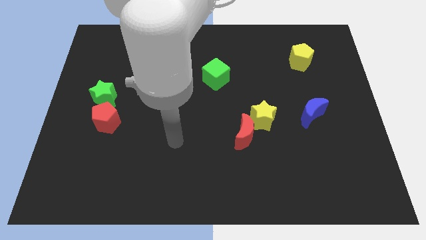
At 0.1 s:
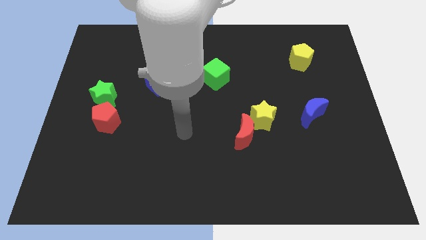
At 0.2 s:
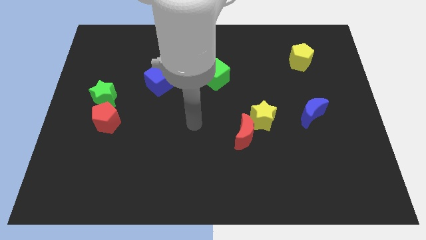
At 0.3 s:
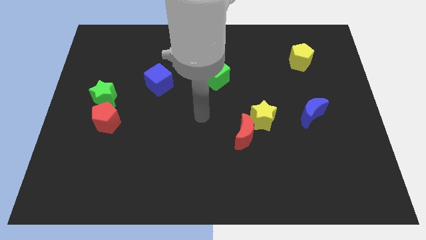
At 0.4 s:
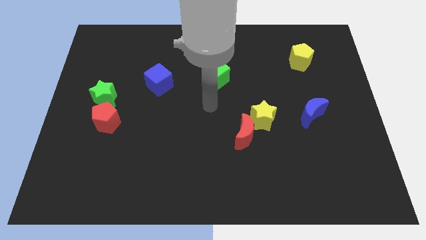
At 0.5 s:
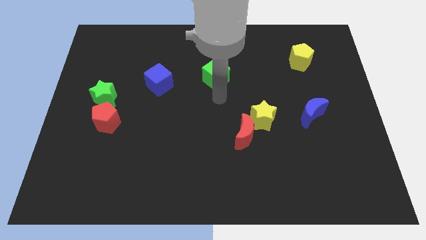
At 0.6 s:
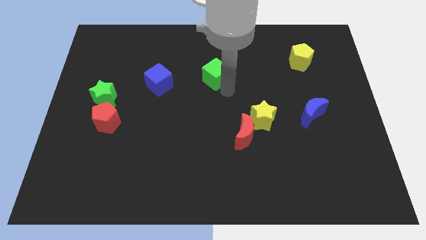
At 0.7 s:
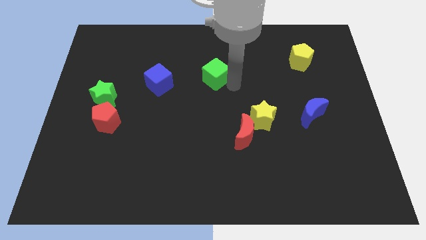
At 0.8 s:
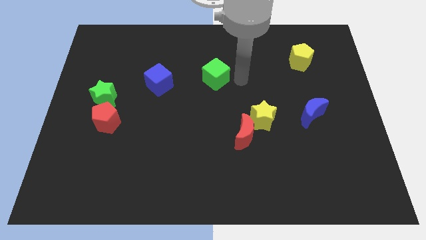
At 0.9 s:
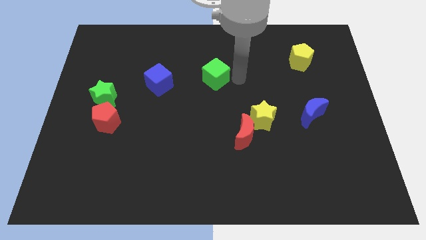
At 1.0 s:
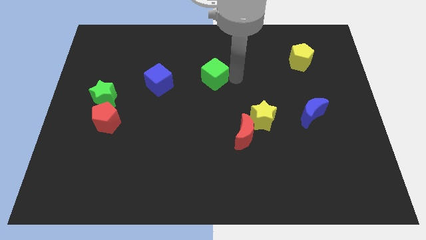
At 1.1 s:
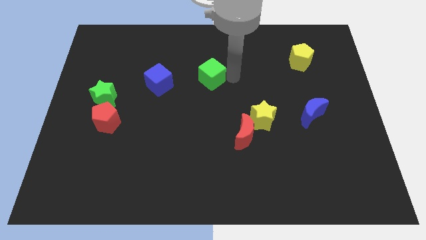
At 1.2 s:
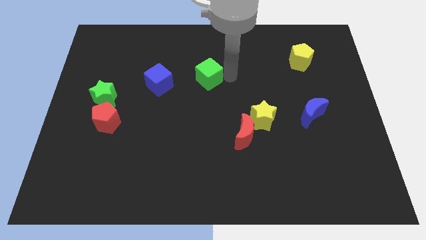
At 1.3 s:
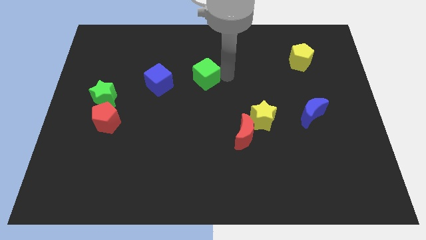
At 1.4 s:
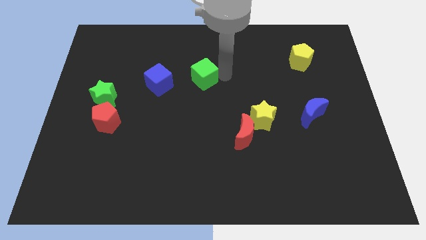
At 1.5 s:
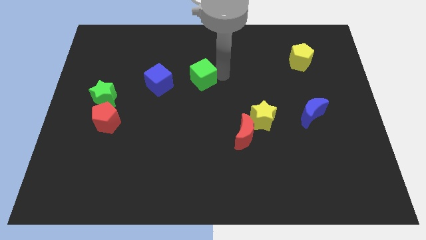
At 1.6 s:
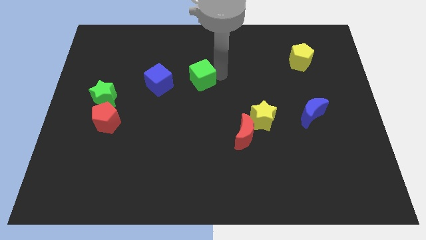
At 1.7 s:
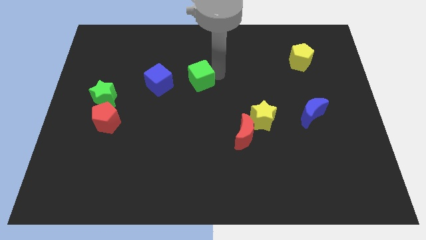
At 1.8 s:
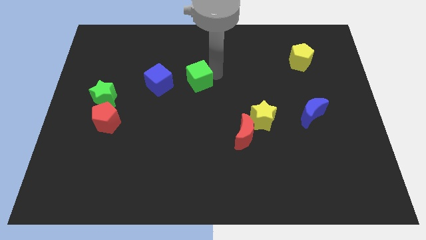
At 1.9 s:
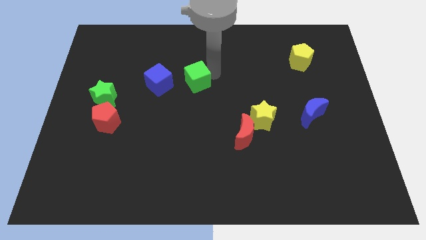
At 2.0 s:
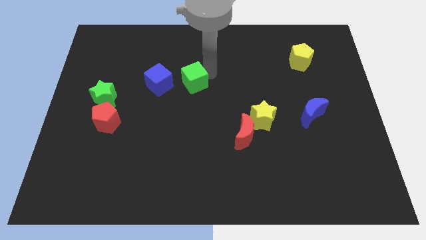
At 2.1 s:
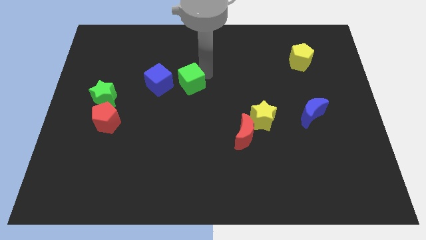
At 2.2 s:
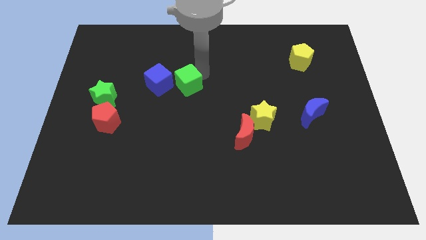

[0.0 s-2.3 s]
slightly slide the green cube left

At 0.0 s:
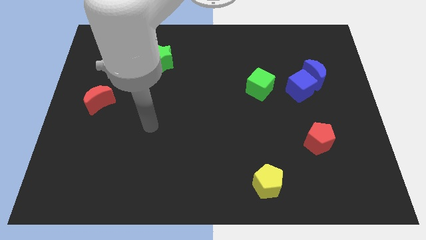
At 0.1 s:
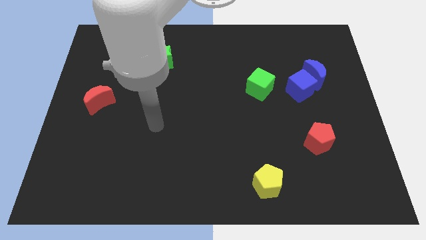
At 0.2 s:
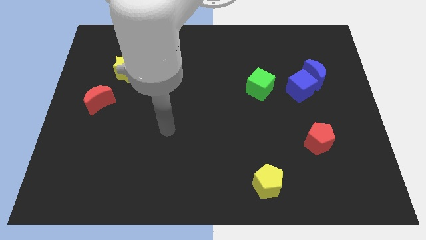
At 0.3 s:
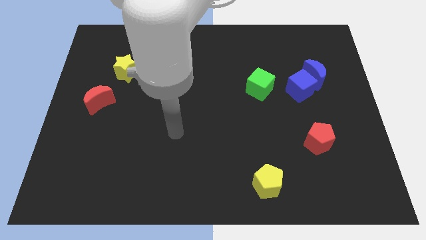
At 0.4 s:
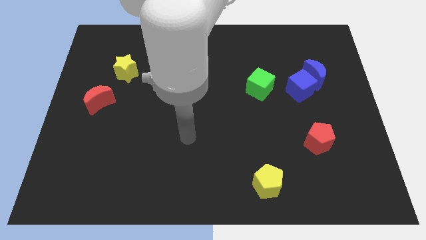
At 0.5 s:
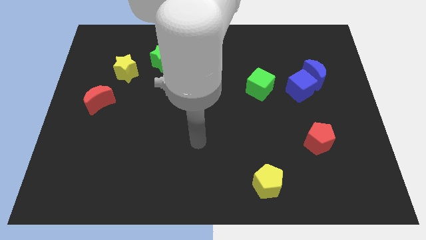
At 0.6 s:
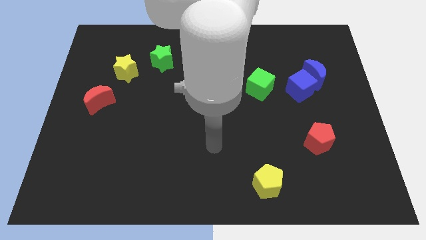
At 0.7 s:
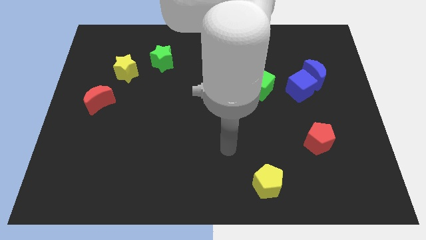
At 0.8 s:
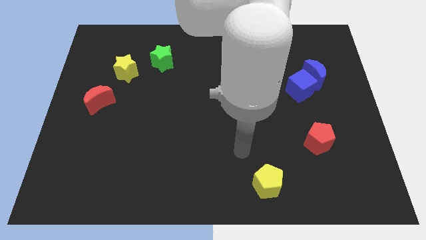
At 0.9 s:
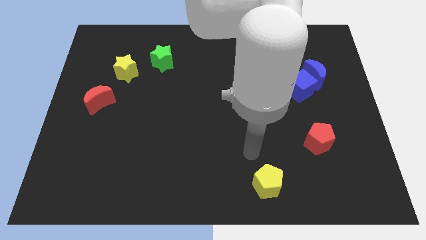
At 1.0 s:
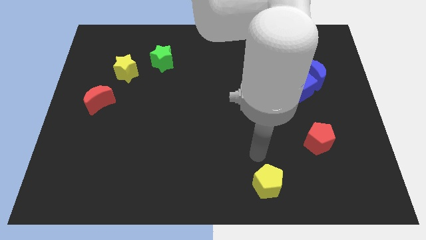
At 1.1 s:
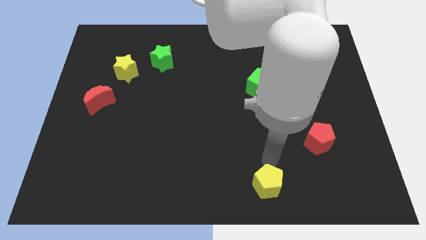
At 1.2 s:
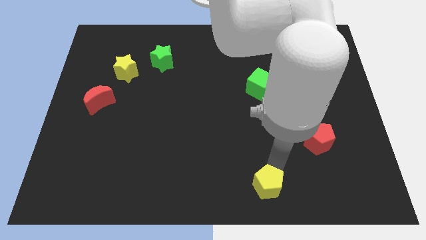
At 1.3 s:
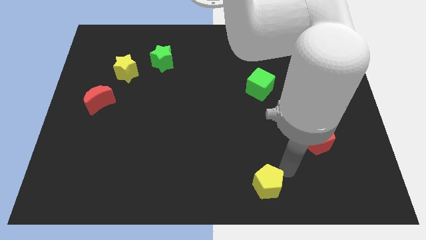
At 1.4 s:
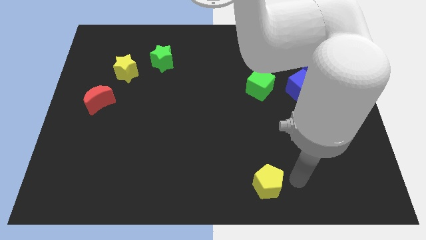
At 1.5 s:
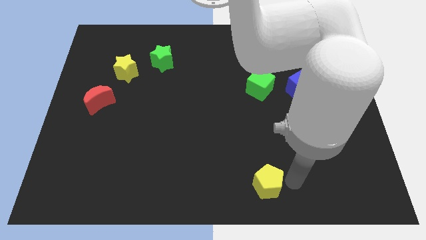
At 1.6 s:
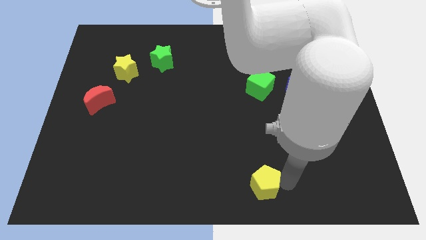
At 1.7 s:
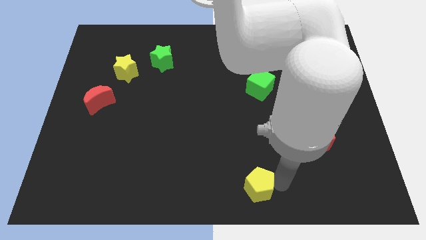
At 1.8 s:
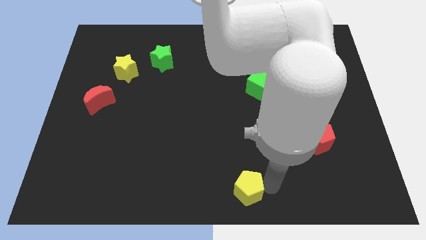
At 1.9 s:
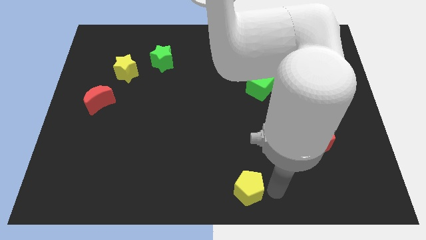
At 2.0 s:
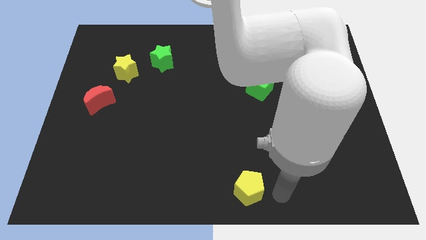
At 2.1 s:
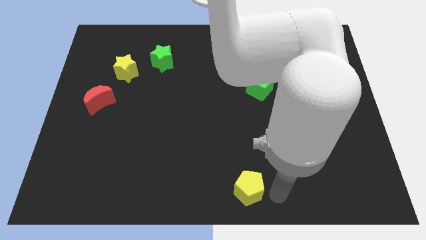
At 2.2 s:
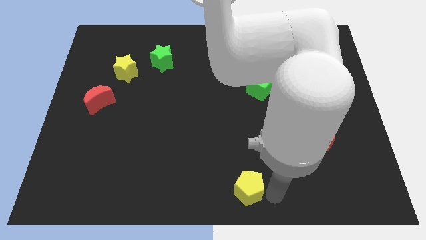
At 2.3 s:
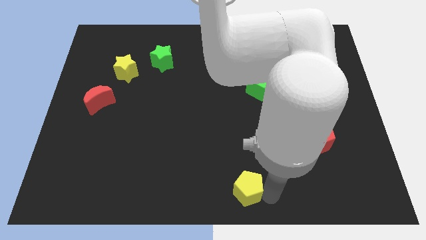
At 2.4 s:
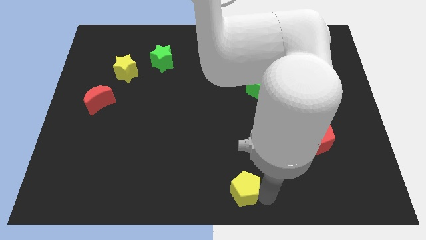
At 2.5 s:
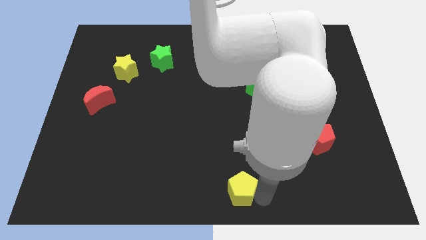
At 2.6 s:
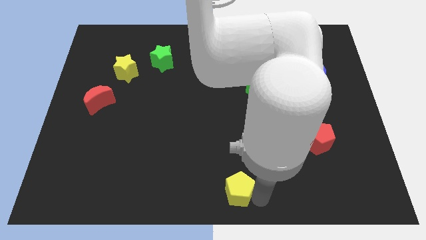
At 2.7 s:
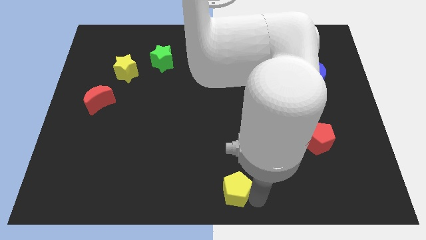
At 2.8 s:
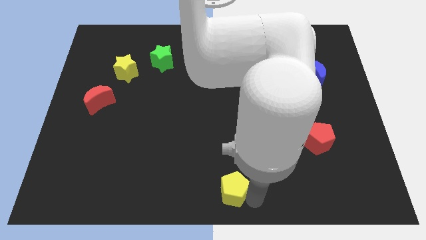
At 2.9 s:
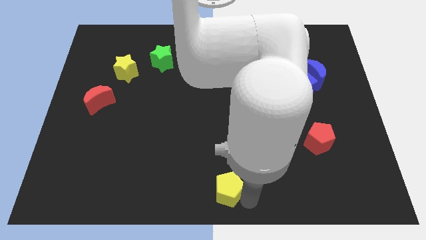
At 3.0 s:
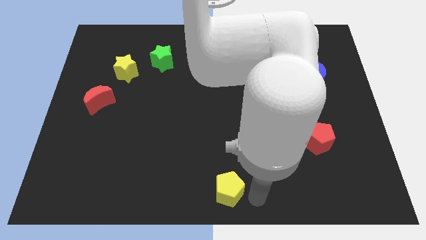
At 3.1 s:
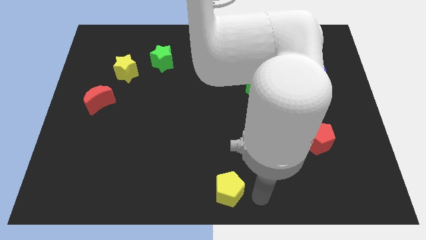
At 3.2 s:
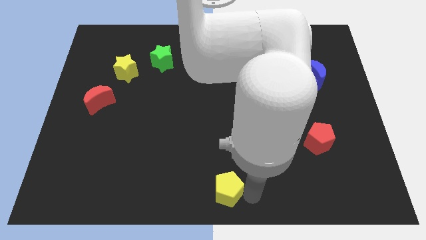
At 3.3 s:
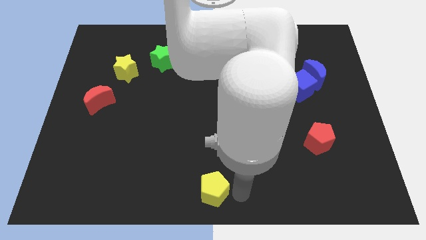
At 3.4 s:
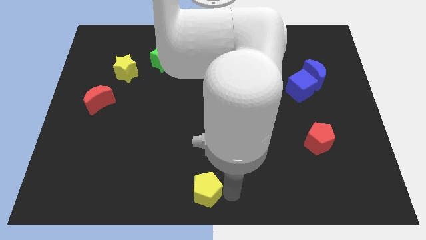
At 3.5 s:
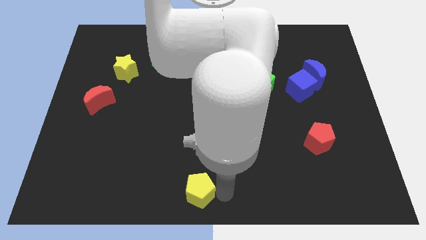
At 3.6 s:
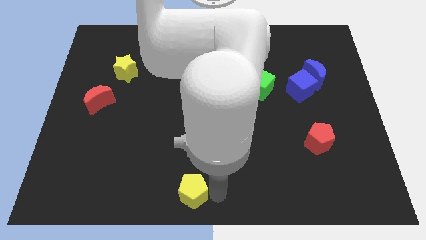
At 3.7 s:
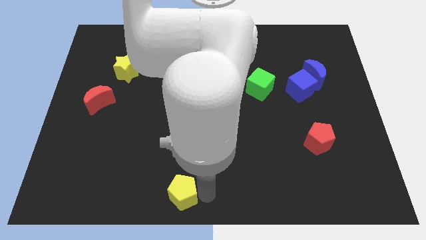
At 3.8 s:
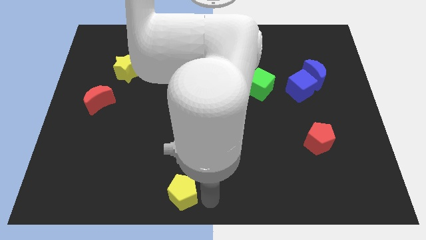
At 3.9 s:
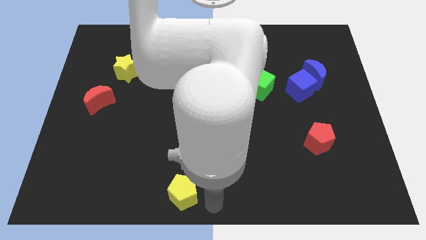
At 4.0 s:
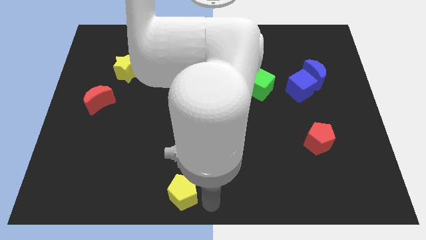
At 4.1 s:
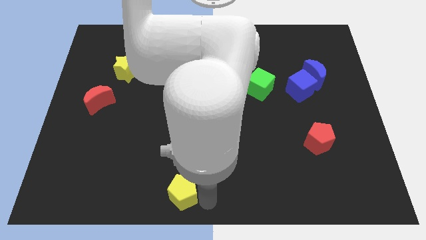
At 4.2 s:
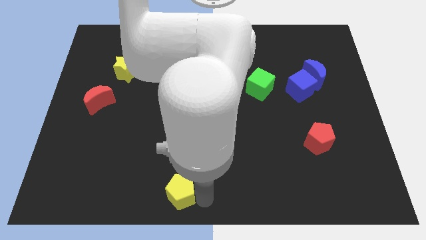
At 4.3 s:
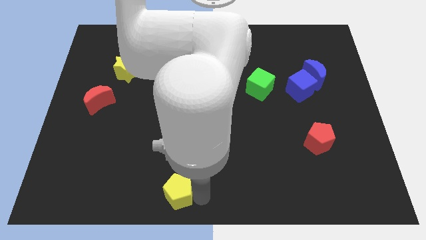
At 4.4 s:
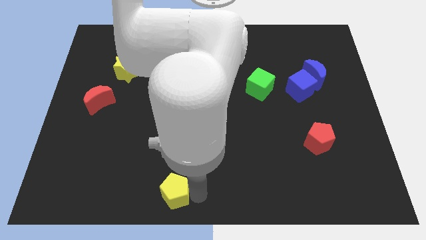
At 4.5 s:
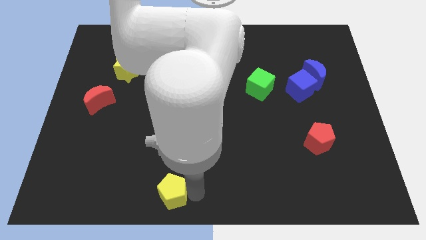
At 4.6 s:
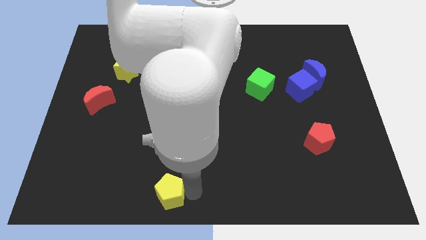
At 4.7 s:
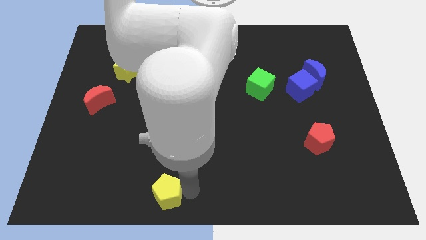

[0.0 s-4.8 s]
move the yellow pentagon left

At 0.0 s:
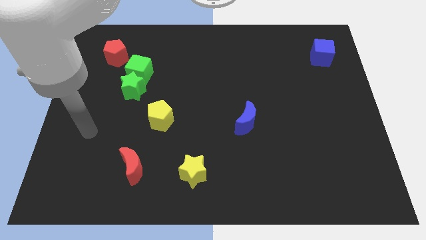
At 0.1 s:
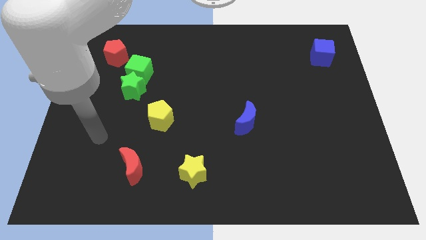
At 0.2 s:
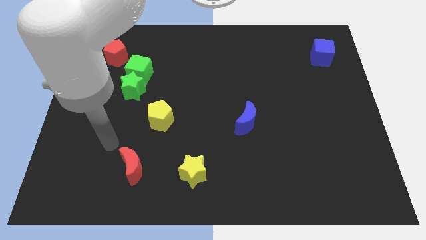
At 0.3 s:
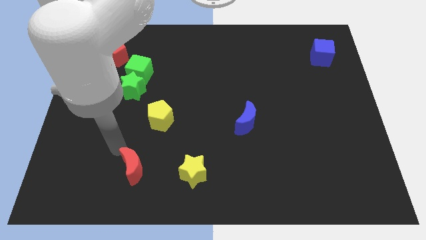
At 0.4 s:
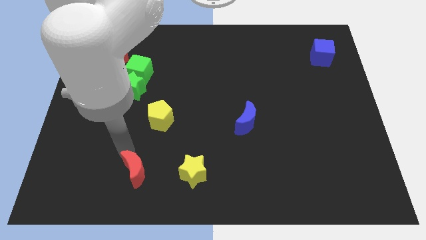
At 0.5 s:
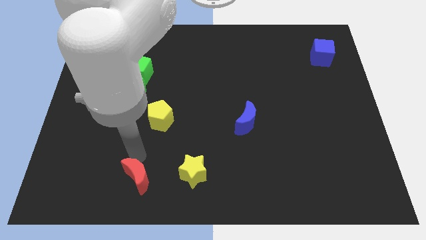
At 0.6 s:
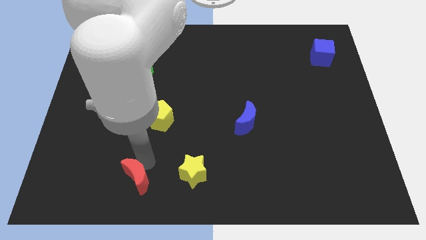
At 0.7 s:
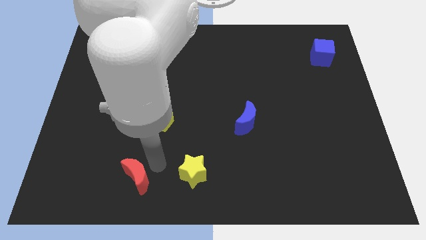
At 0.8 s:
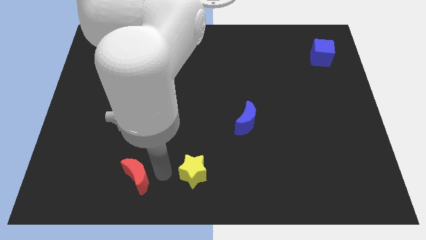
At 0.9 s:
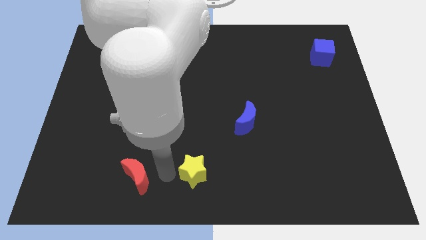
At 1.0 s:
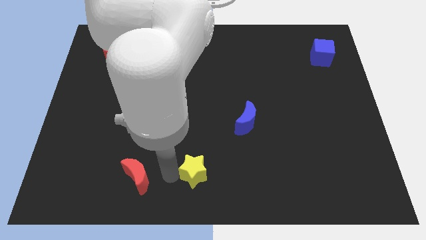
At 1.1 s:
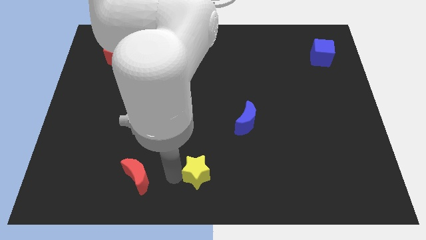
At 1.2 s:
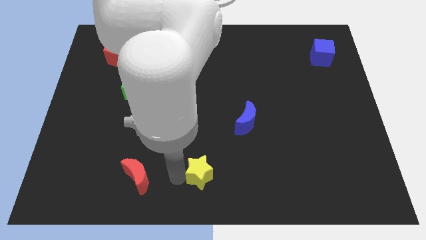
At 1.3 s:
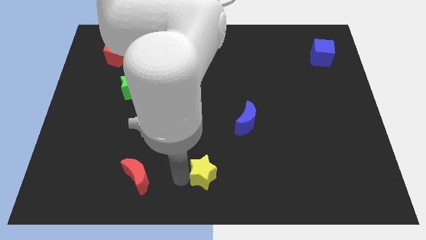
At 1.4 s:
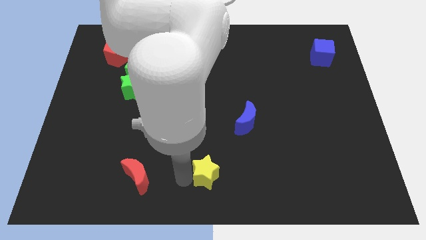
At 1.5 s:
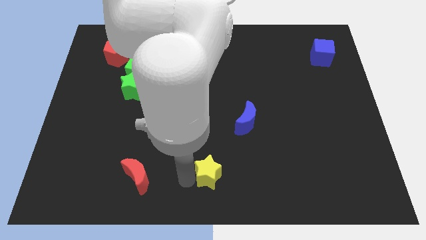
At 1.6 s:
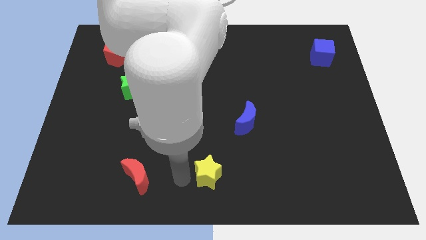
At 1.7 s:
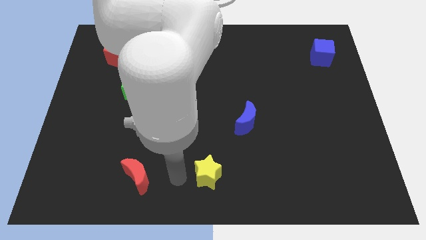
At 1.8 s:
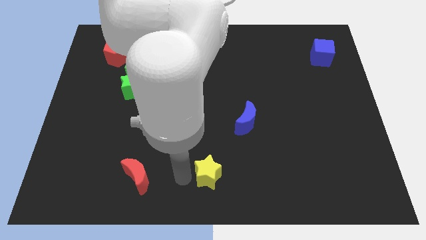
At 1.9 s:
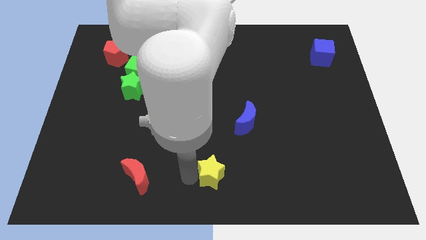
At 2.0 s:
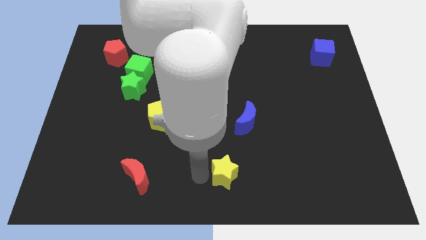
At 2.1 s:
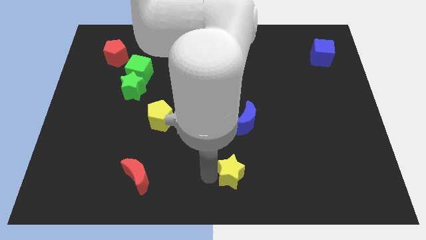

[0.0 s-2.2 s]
slide the yellow star somewhat to the right
